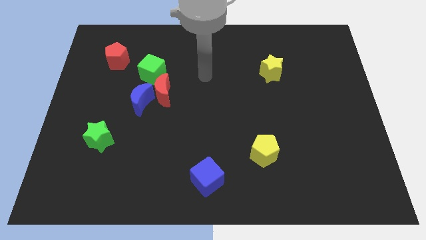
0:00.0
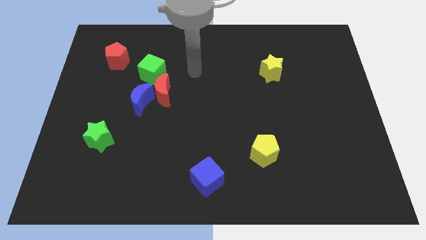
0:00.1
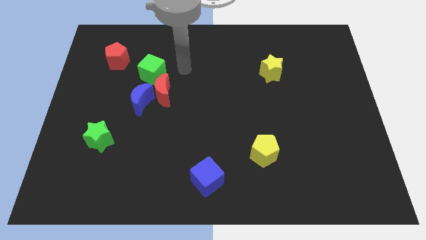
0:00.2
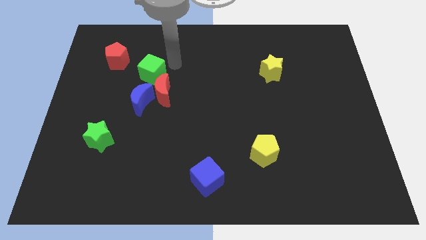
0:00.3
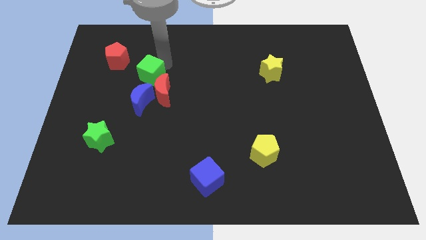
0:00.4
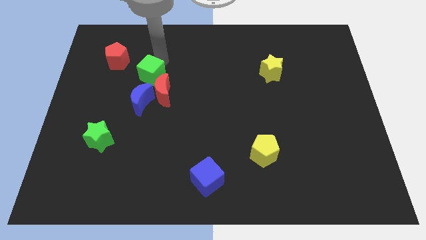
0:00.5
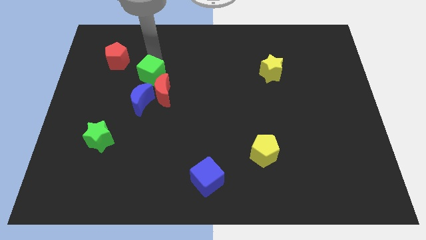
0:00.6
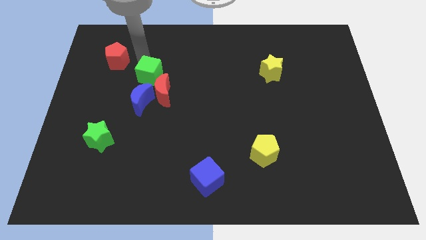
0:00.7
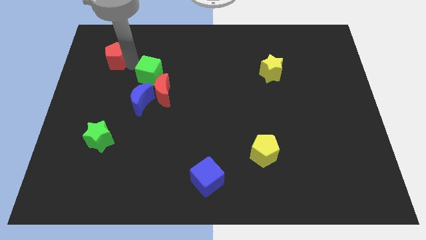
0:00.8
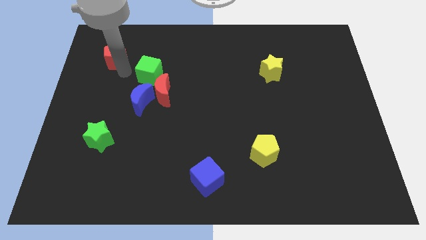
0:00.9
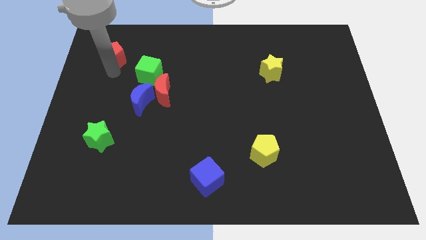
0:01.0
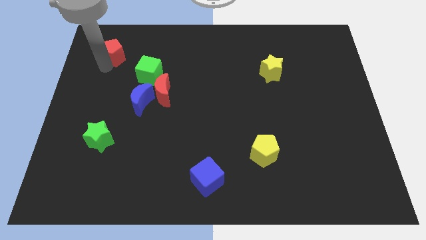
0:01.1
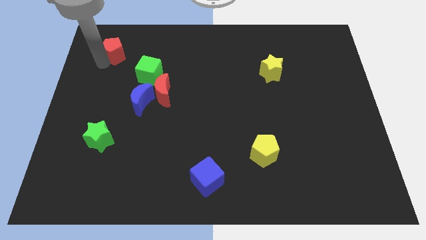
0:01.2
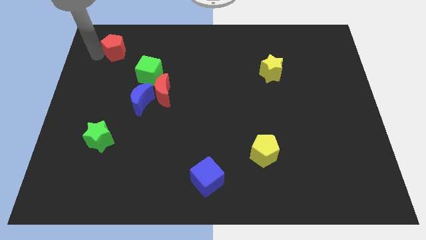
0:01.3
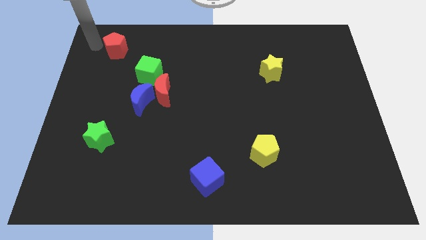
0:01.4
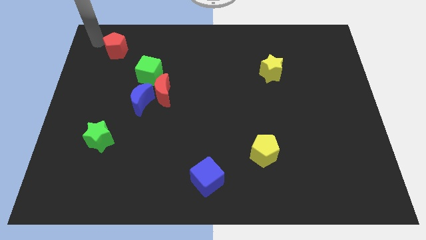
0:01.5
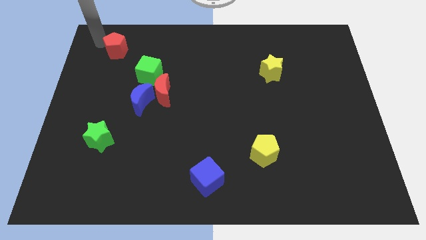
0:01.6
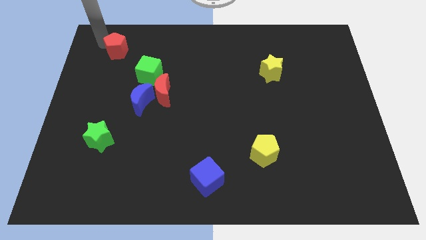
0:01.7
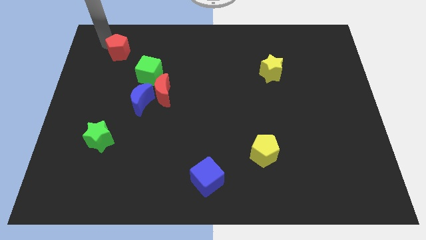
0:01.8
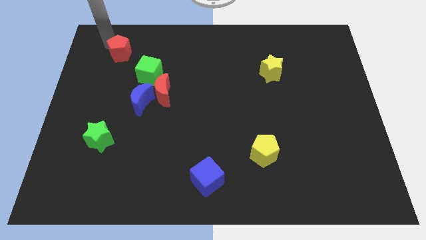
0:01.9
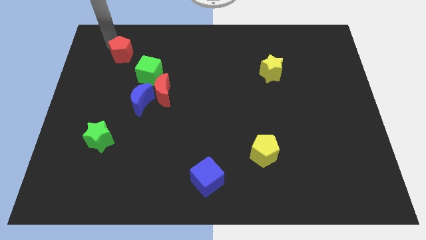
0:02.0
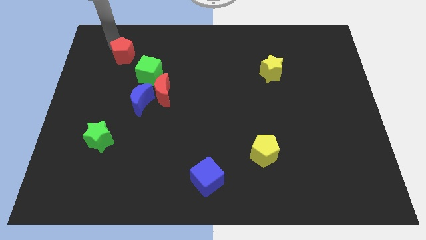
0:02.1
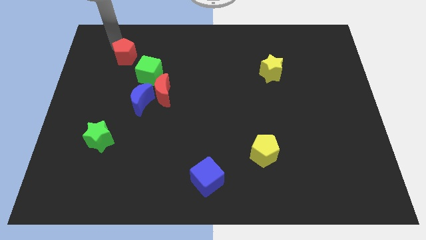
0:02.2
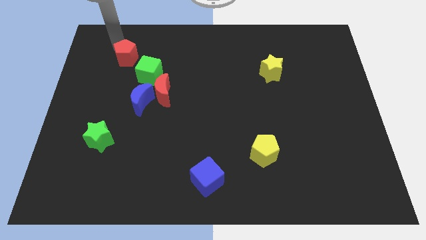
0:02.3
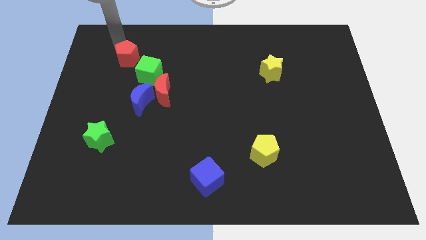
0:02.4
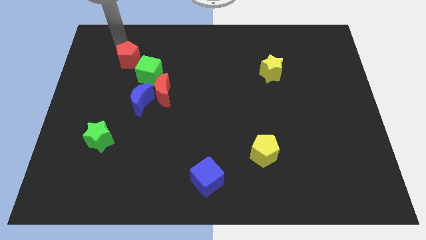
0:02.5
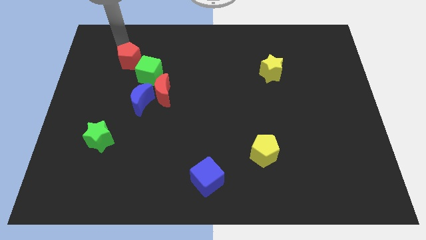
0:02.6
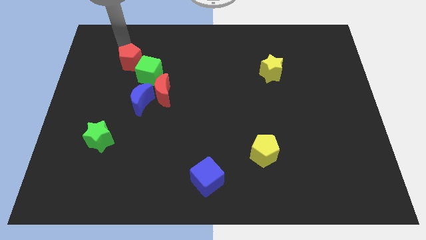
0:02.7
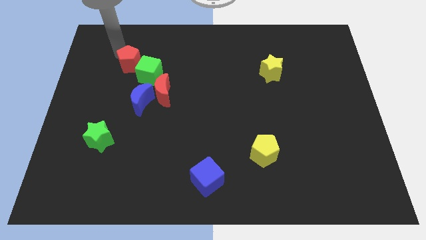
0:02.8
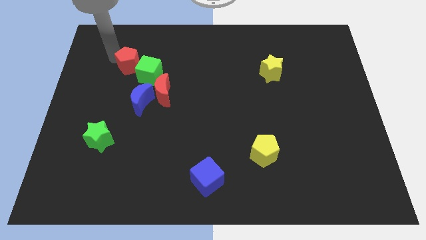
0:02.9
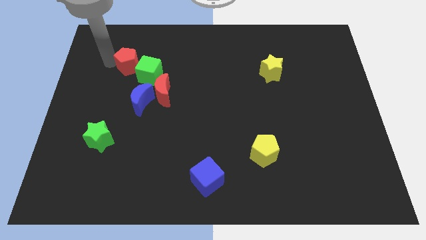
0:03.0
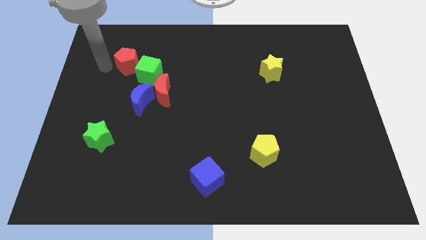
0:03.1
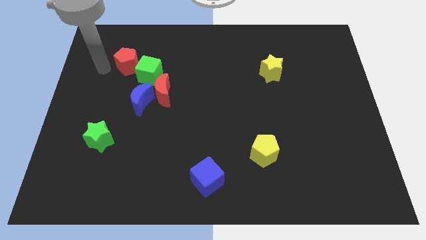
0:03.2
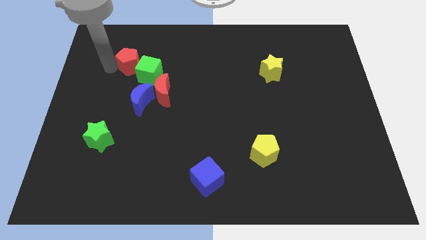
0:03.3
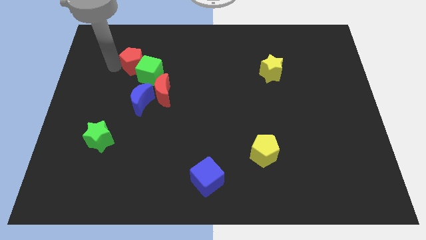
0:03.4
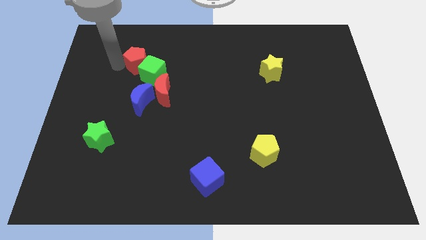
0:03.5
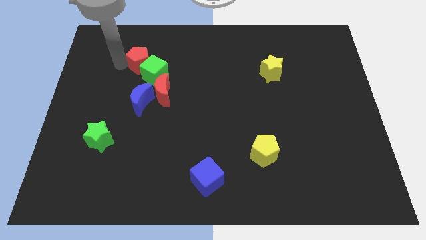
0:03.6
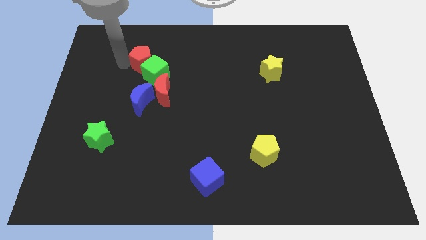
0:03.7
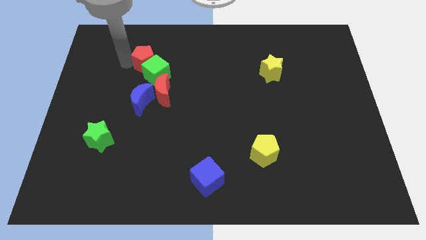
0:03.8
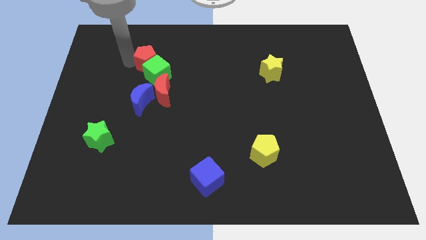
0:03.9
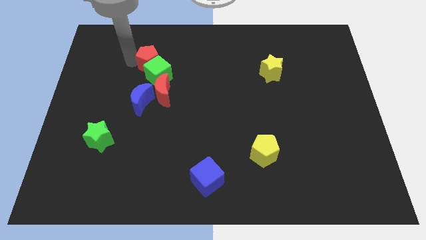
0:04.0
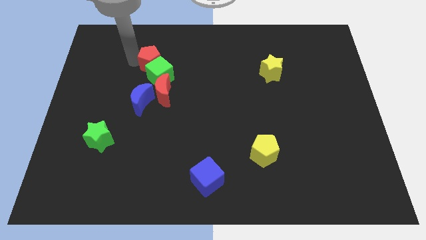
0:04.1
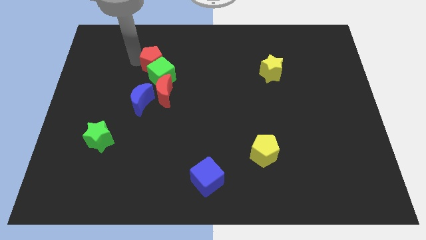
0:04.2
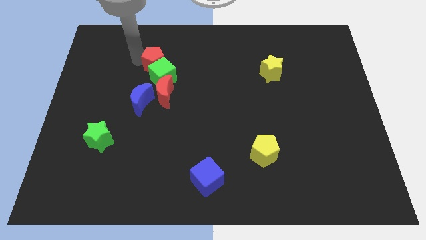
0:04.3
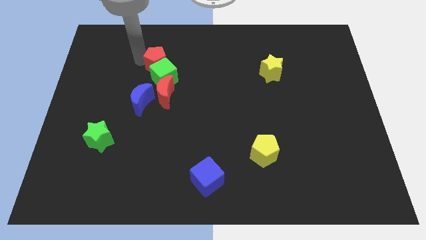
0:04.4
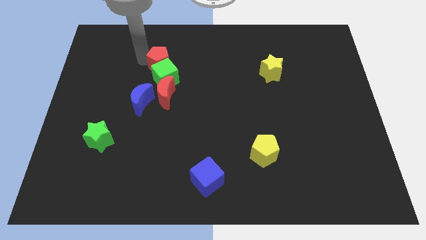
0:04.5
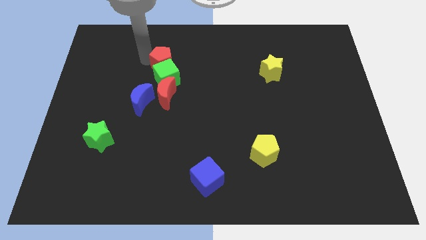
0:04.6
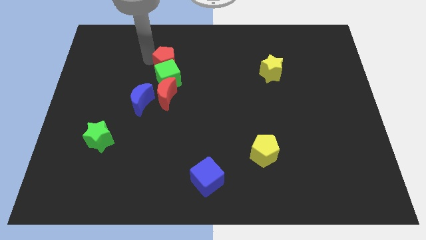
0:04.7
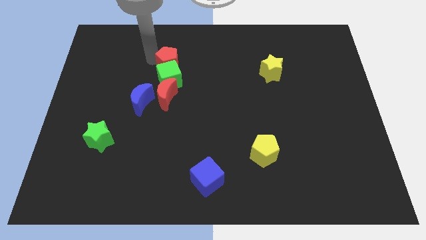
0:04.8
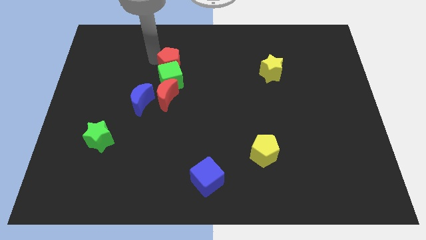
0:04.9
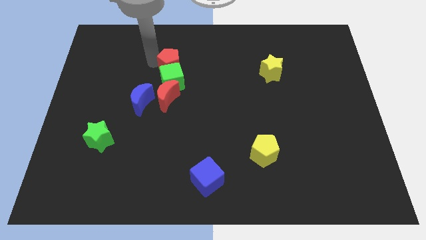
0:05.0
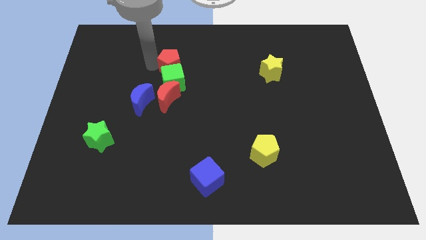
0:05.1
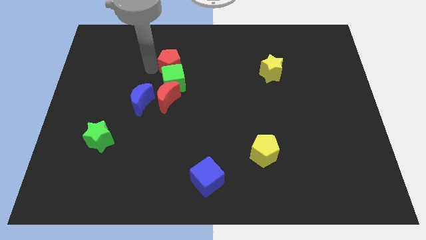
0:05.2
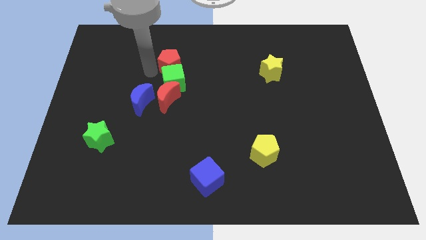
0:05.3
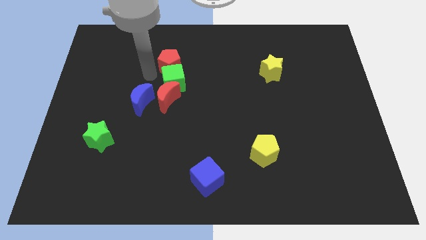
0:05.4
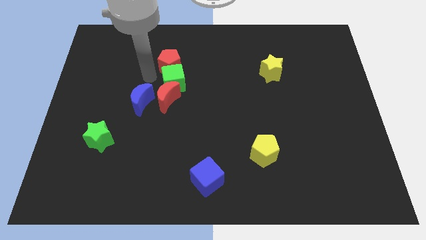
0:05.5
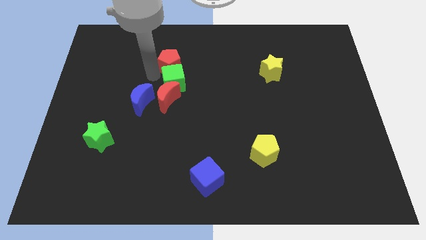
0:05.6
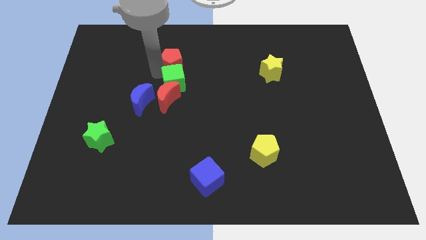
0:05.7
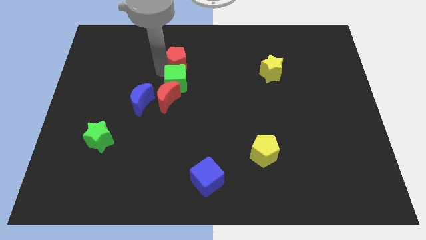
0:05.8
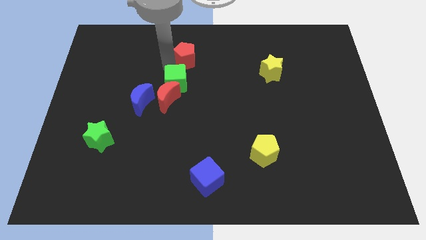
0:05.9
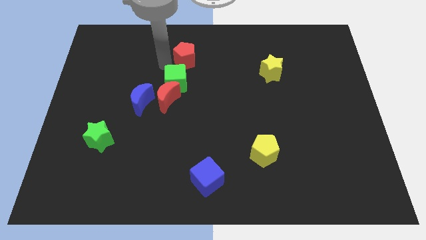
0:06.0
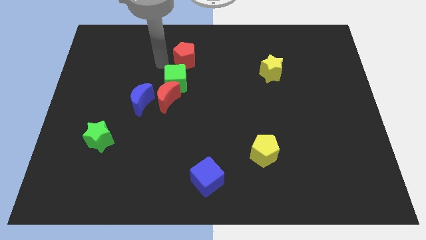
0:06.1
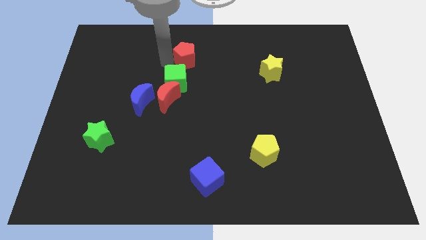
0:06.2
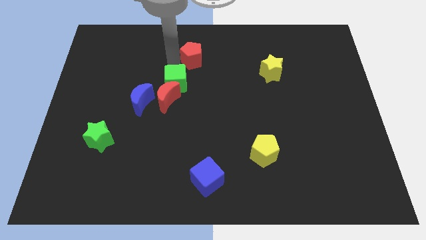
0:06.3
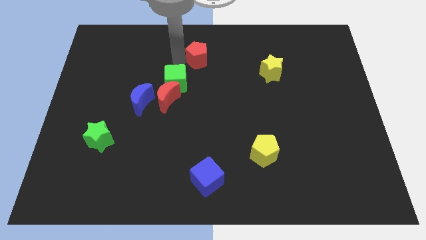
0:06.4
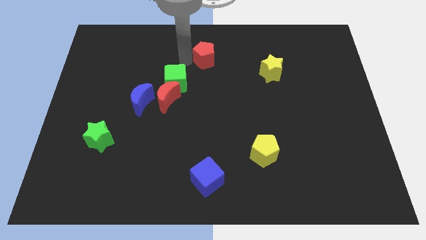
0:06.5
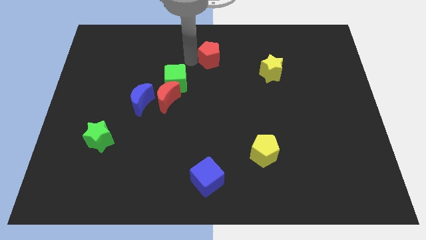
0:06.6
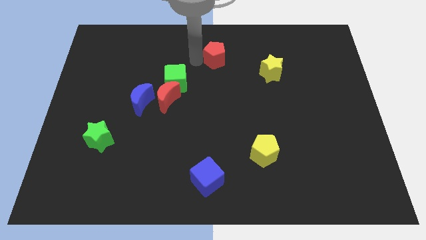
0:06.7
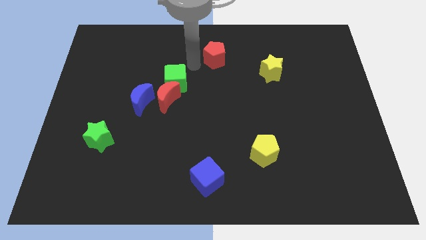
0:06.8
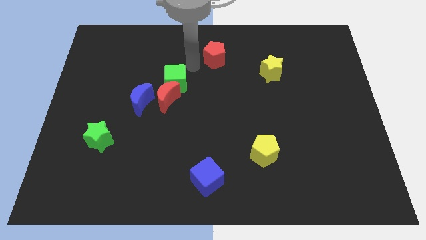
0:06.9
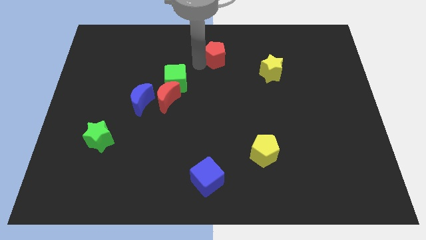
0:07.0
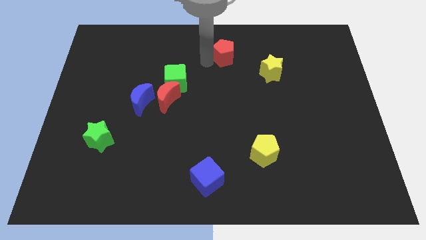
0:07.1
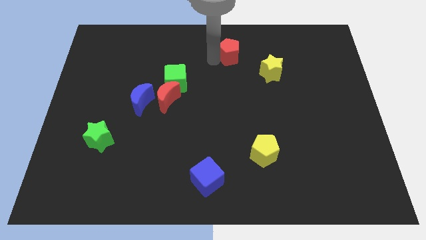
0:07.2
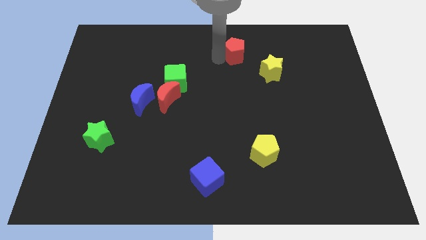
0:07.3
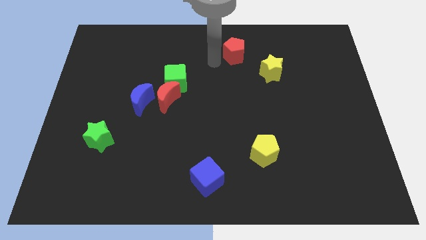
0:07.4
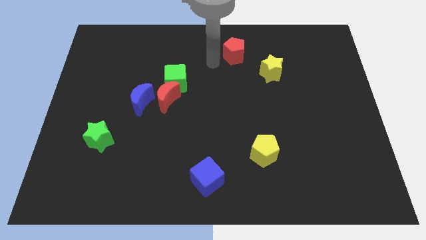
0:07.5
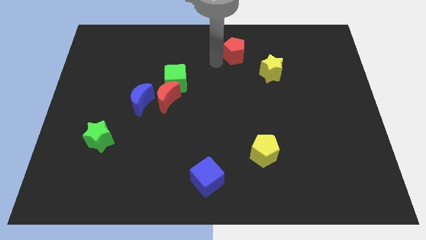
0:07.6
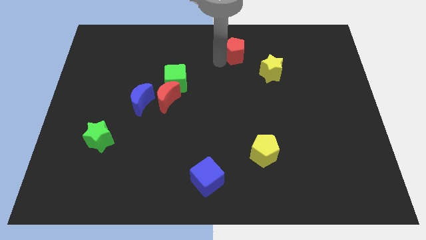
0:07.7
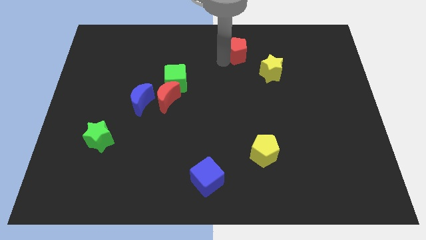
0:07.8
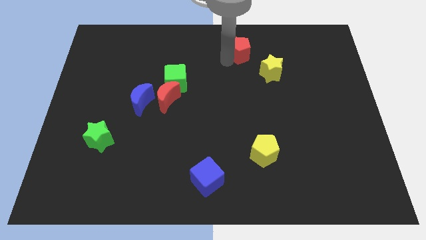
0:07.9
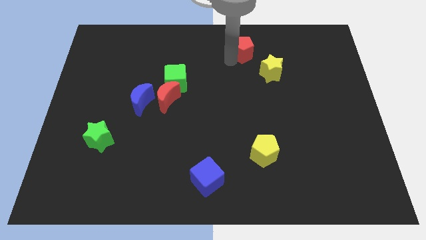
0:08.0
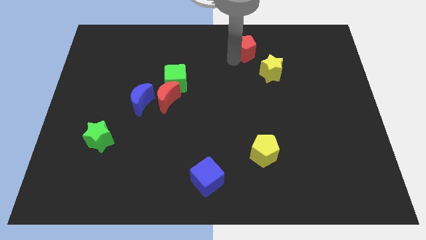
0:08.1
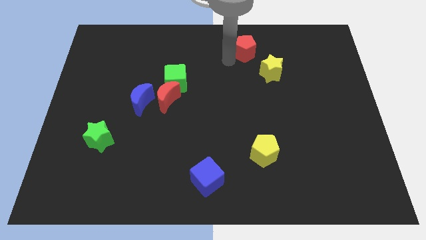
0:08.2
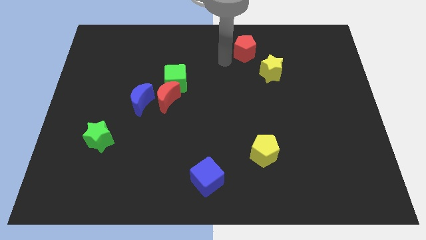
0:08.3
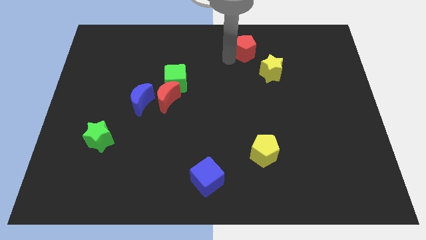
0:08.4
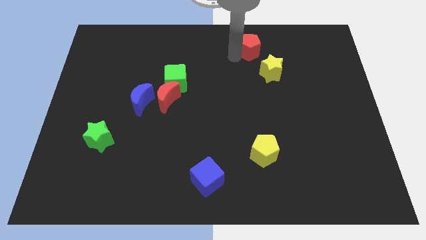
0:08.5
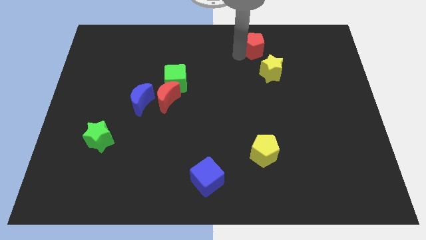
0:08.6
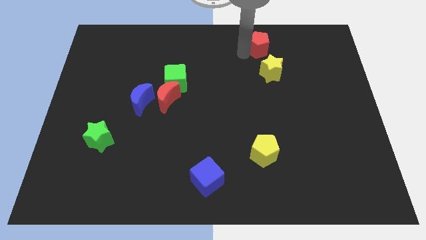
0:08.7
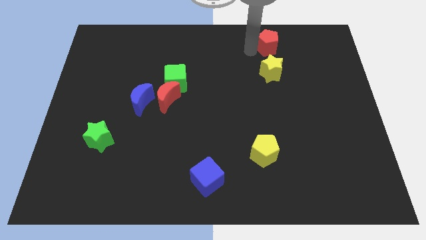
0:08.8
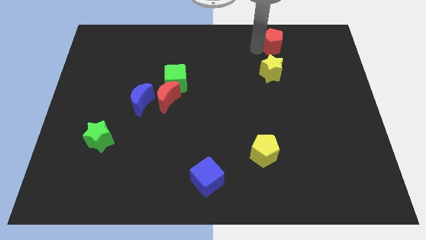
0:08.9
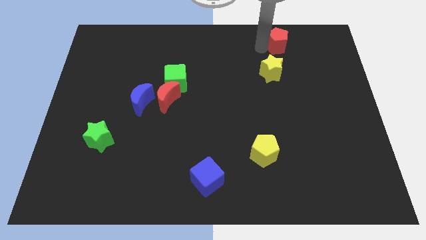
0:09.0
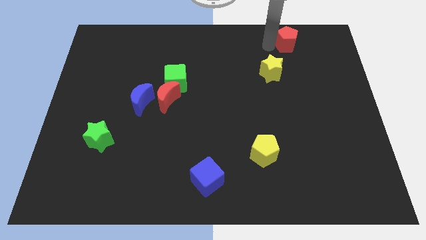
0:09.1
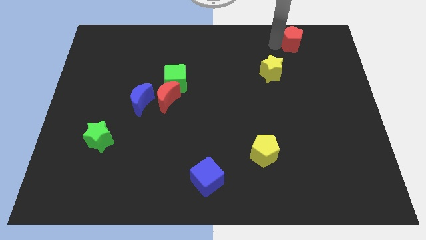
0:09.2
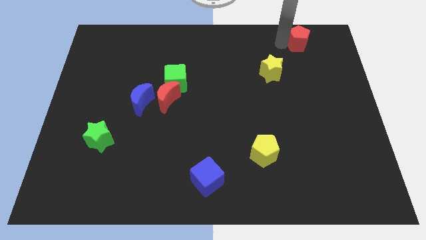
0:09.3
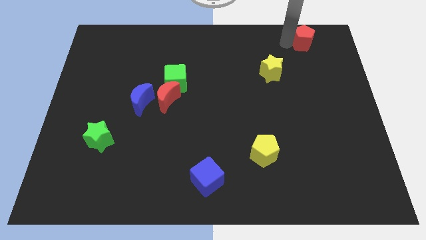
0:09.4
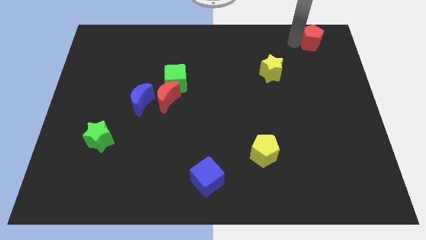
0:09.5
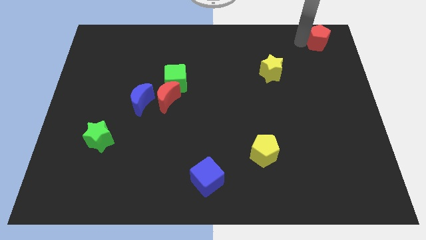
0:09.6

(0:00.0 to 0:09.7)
move the red pentagon to the top right corner
